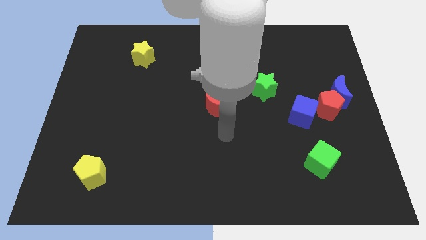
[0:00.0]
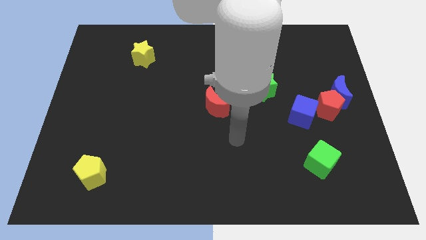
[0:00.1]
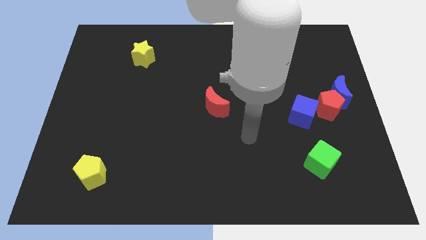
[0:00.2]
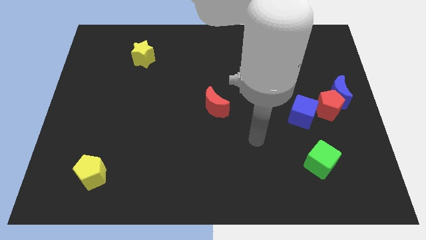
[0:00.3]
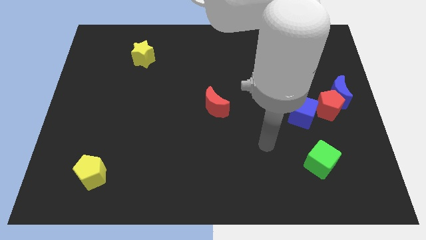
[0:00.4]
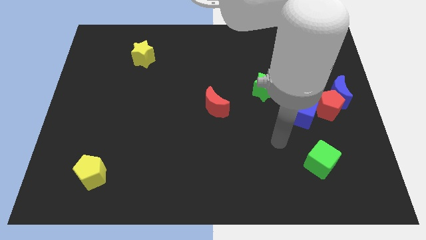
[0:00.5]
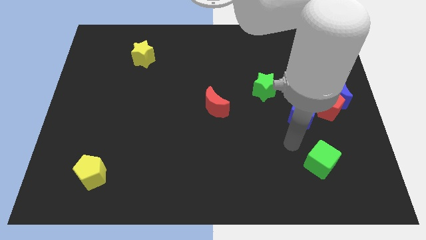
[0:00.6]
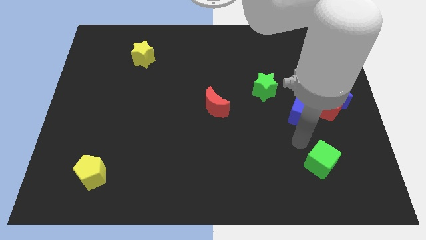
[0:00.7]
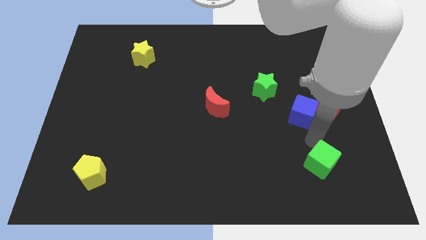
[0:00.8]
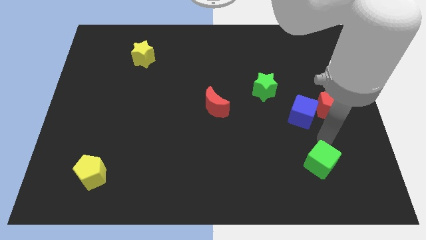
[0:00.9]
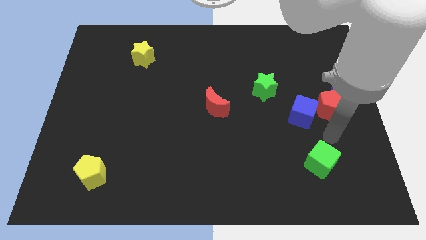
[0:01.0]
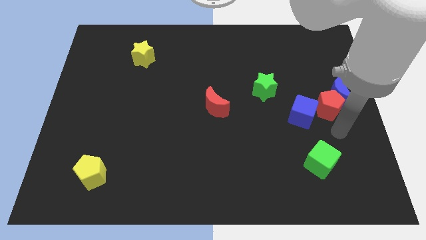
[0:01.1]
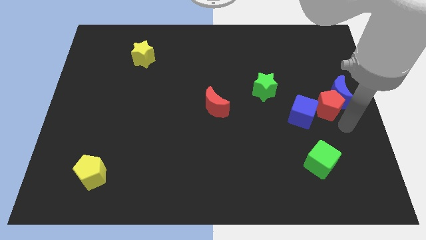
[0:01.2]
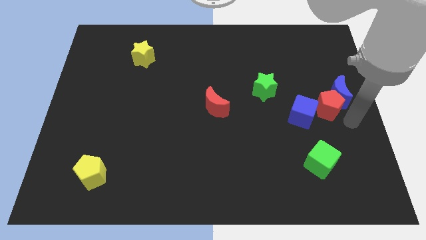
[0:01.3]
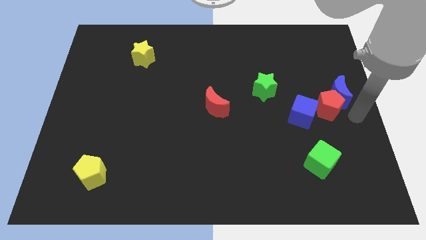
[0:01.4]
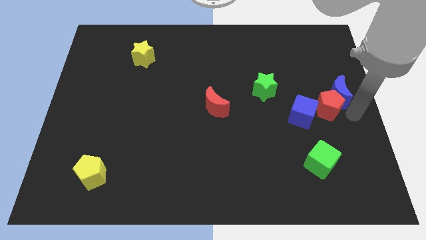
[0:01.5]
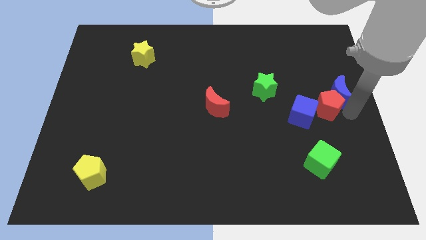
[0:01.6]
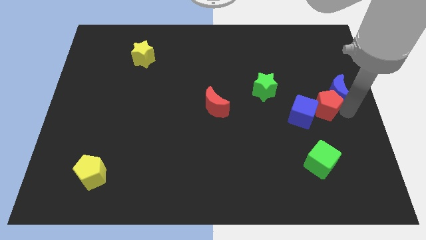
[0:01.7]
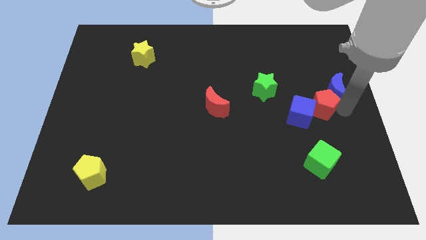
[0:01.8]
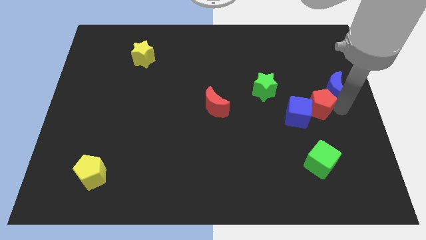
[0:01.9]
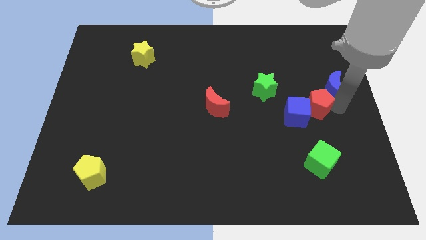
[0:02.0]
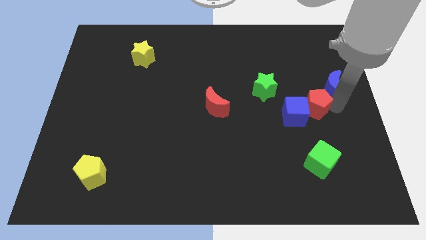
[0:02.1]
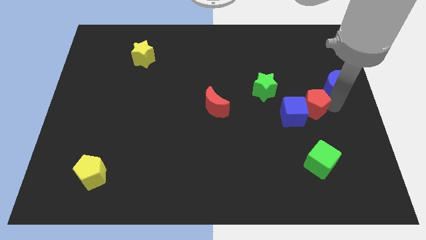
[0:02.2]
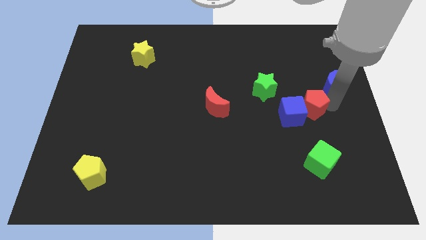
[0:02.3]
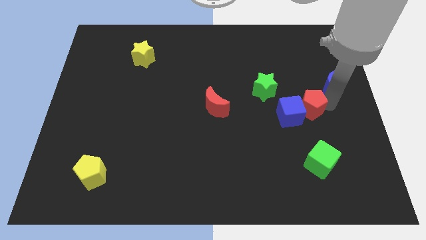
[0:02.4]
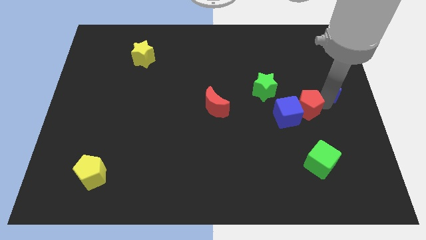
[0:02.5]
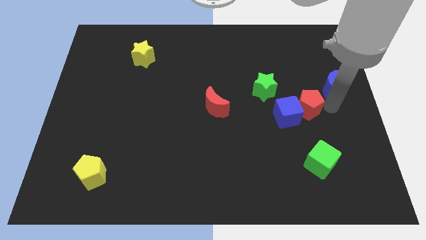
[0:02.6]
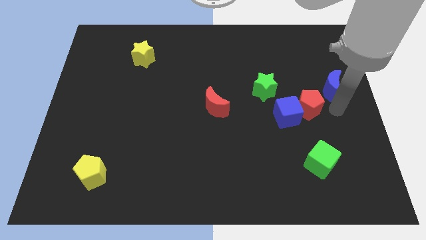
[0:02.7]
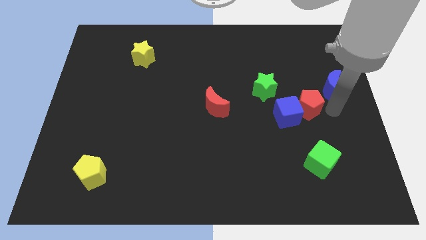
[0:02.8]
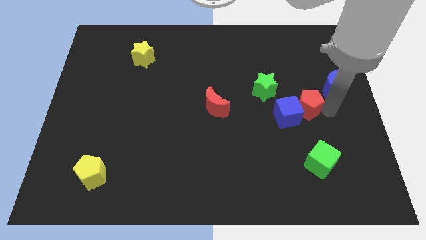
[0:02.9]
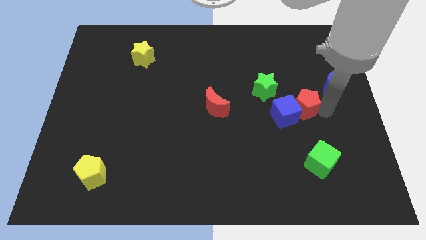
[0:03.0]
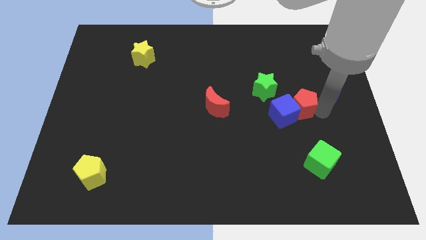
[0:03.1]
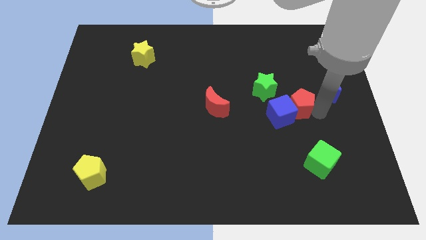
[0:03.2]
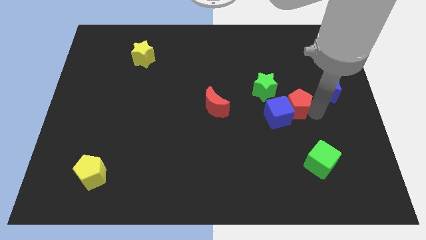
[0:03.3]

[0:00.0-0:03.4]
push the red pentagon a bit to the left

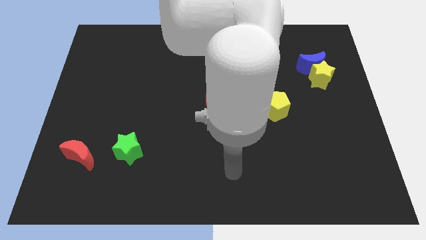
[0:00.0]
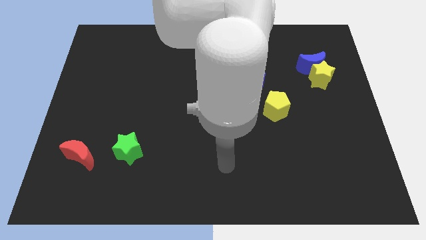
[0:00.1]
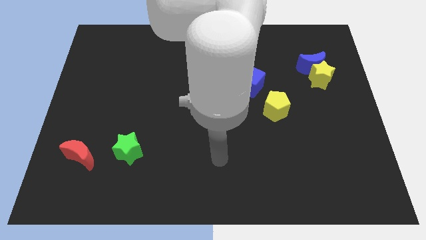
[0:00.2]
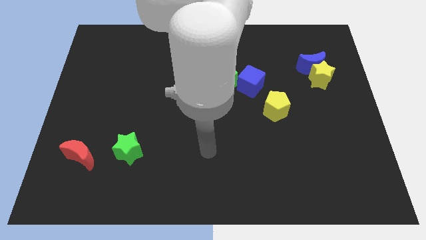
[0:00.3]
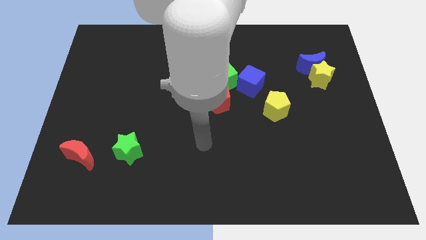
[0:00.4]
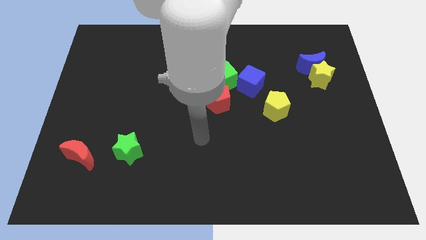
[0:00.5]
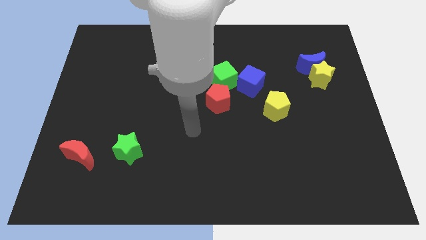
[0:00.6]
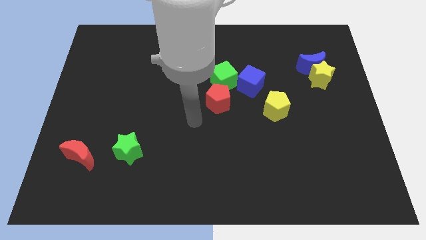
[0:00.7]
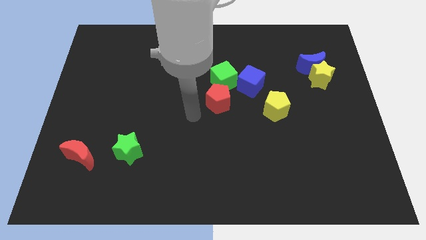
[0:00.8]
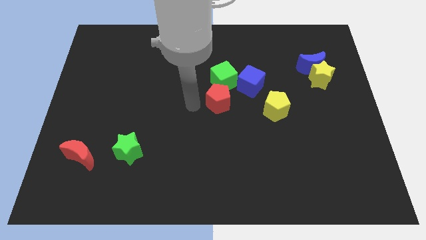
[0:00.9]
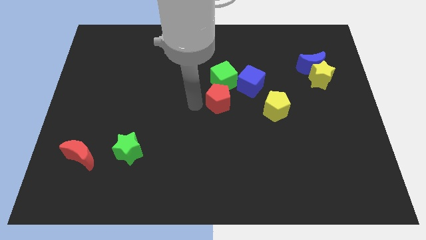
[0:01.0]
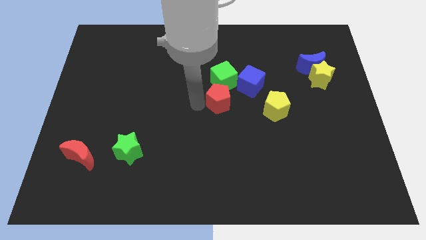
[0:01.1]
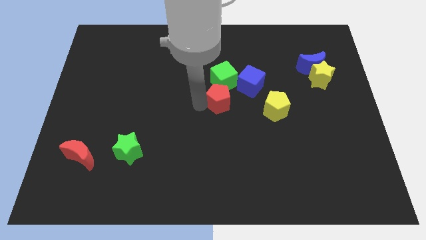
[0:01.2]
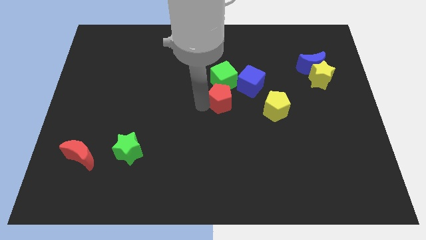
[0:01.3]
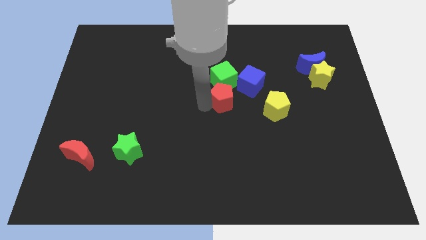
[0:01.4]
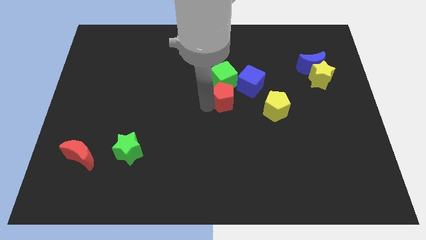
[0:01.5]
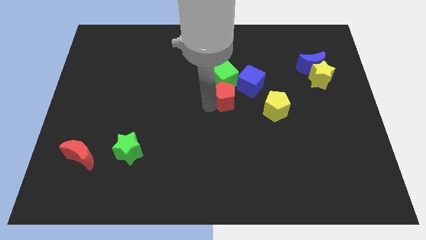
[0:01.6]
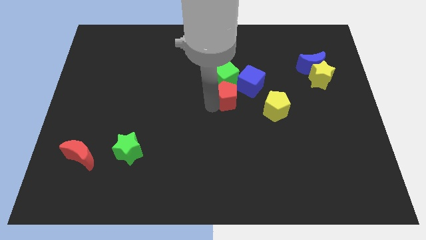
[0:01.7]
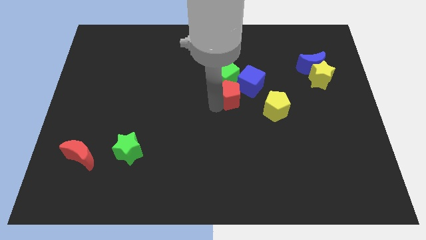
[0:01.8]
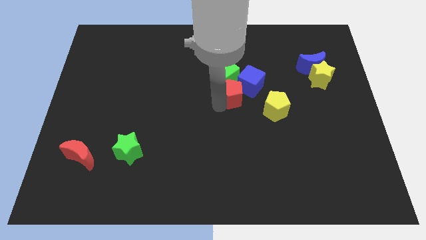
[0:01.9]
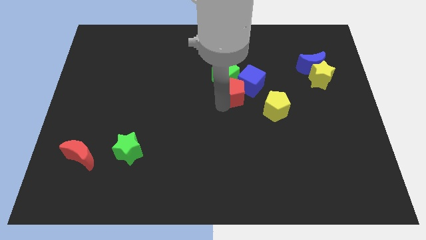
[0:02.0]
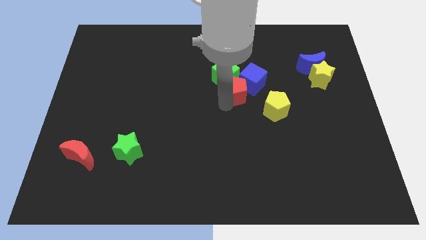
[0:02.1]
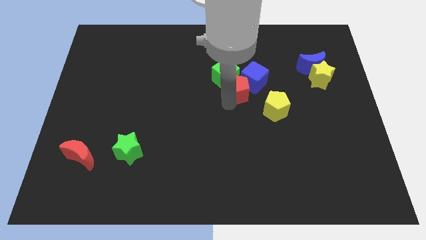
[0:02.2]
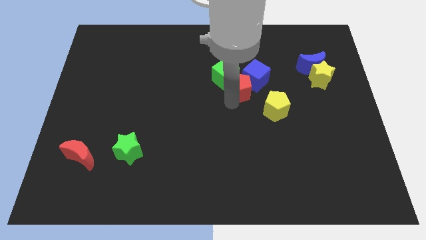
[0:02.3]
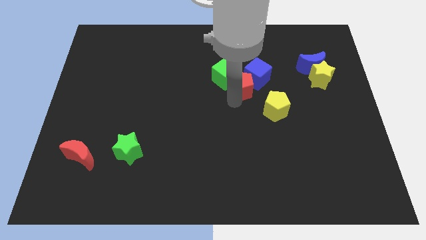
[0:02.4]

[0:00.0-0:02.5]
push the red pentagon a little bit up and then right

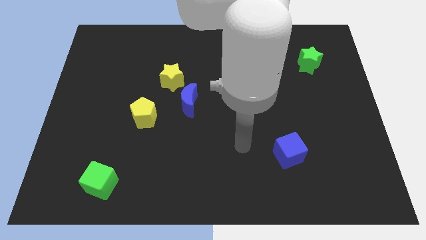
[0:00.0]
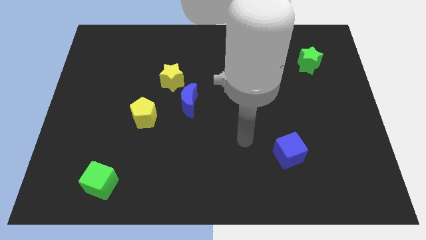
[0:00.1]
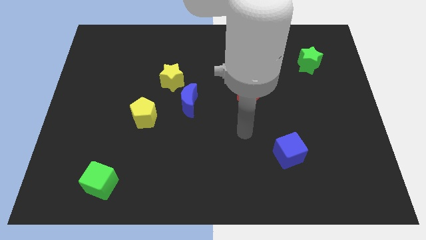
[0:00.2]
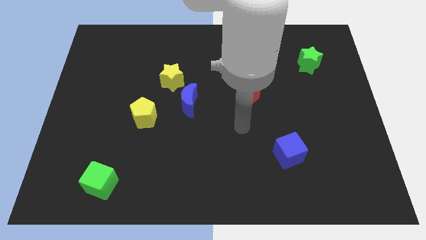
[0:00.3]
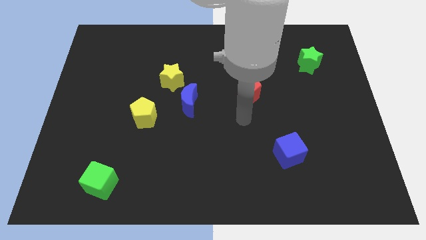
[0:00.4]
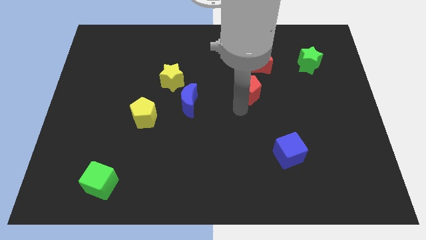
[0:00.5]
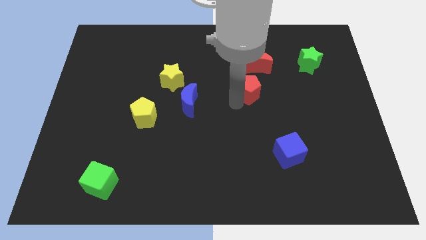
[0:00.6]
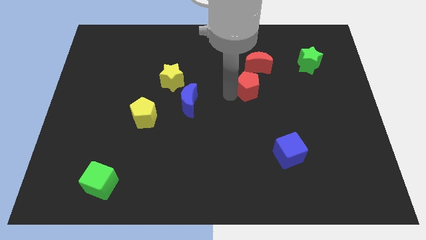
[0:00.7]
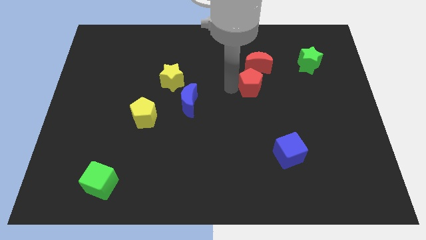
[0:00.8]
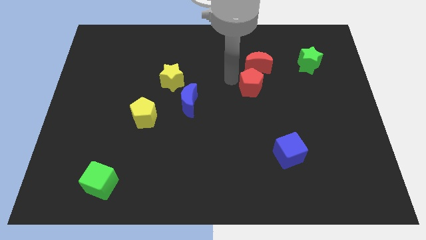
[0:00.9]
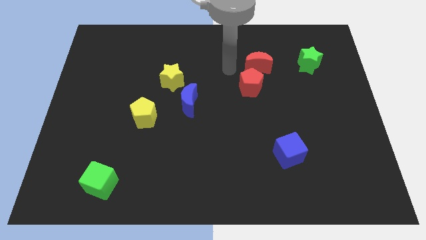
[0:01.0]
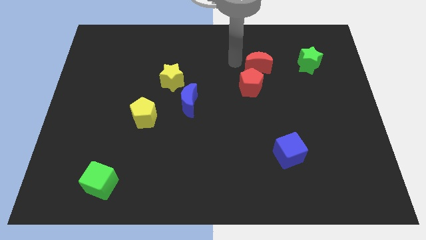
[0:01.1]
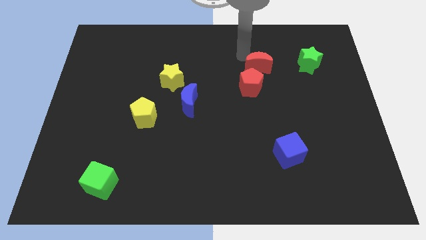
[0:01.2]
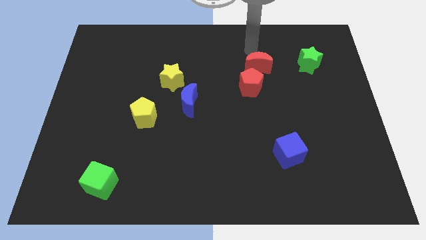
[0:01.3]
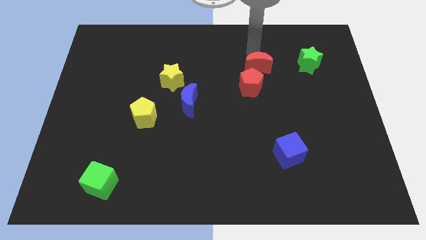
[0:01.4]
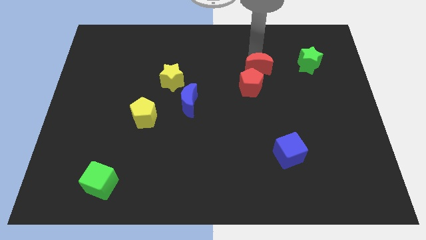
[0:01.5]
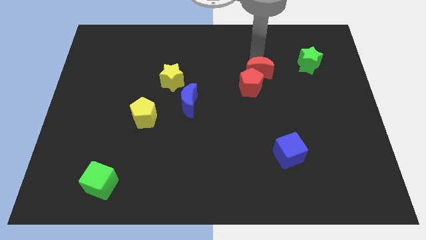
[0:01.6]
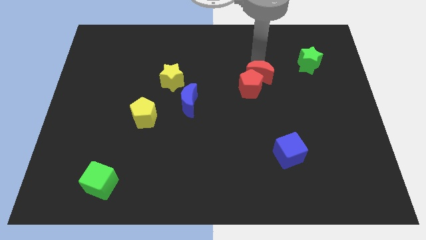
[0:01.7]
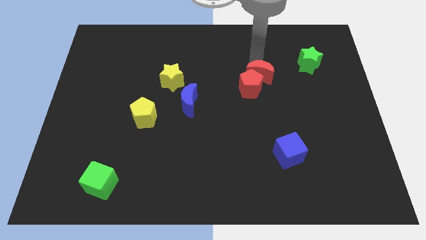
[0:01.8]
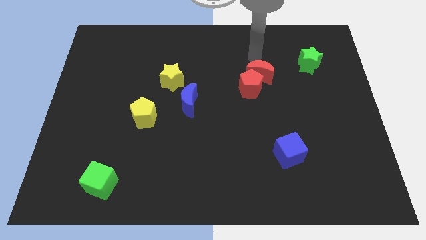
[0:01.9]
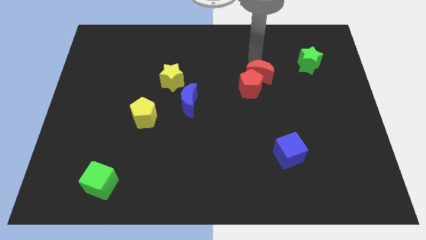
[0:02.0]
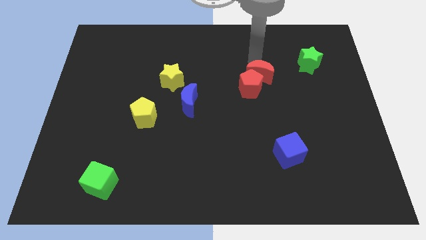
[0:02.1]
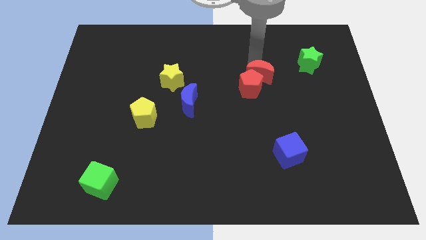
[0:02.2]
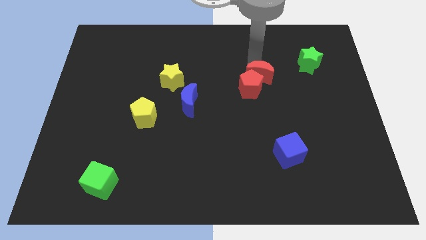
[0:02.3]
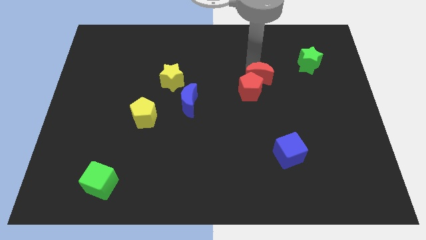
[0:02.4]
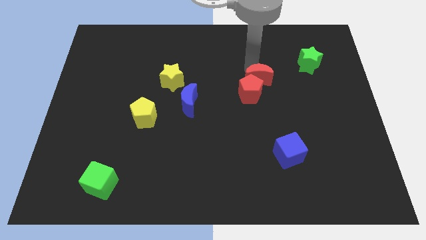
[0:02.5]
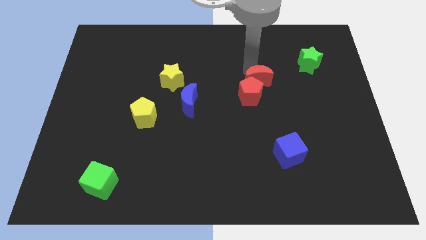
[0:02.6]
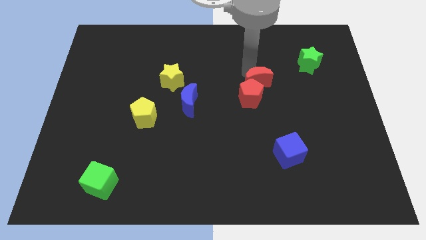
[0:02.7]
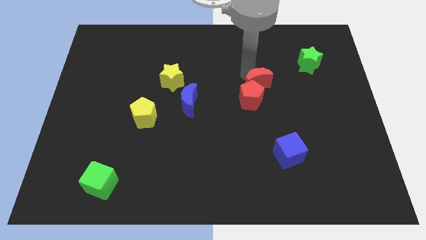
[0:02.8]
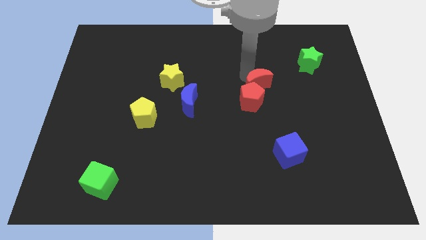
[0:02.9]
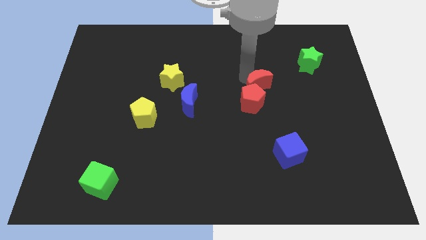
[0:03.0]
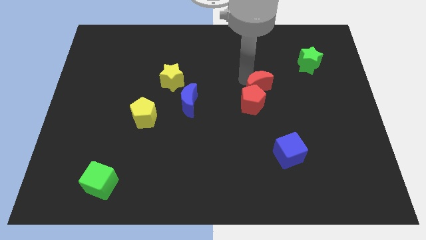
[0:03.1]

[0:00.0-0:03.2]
slightly move the red moon downwards
